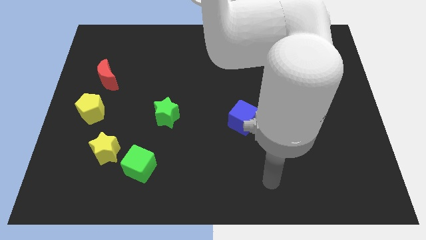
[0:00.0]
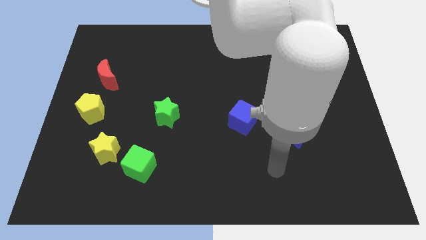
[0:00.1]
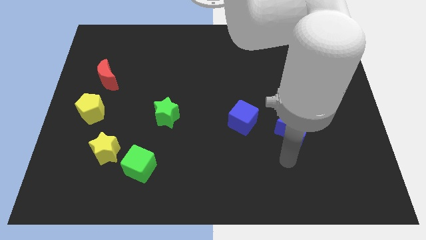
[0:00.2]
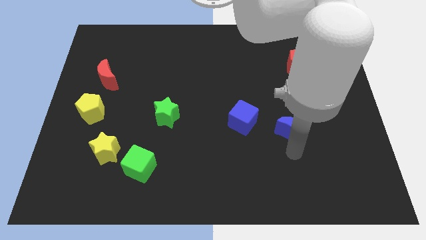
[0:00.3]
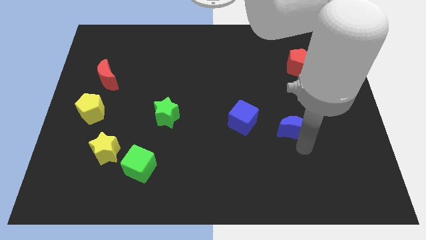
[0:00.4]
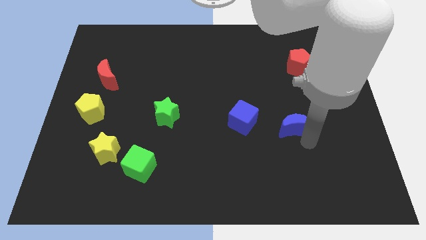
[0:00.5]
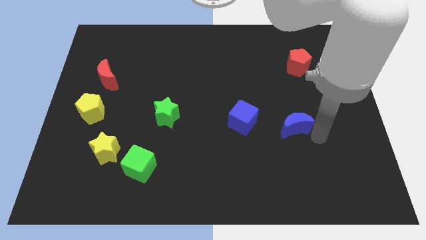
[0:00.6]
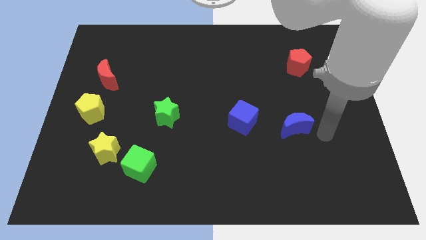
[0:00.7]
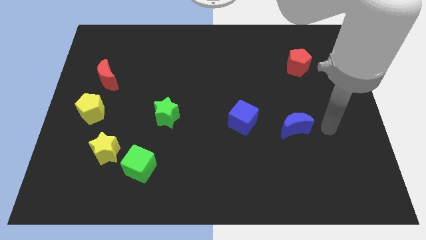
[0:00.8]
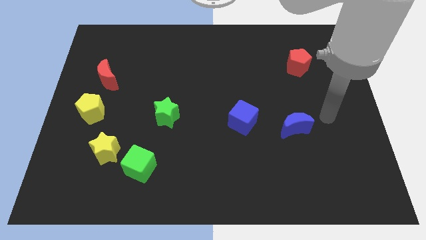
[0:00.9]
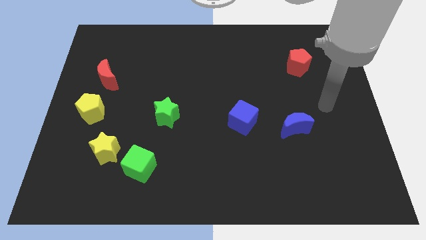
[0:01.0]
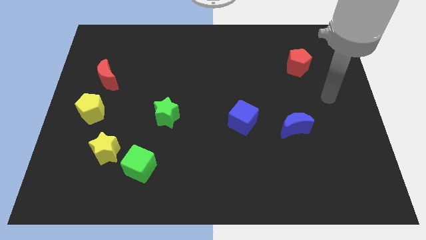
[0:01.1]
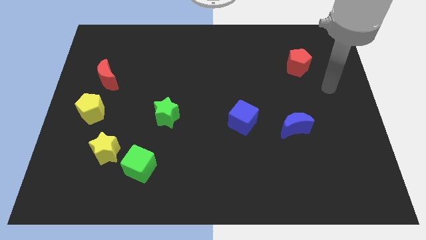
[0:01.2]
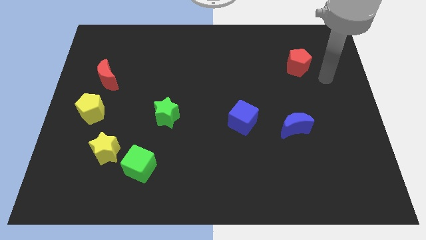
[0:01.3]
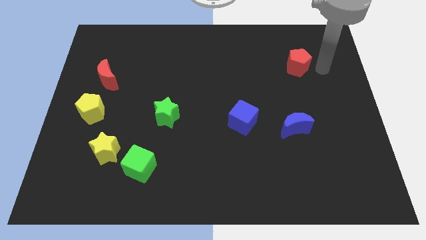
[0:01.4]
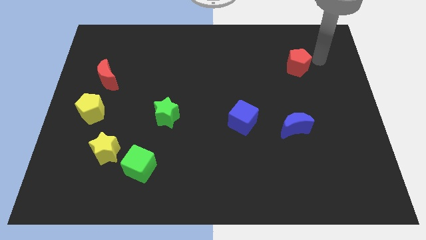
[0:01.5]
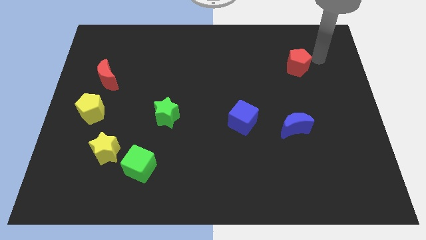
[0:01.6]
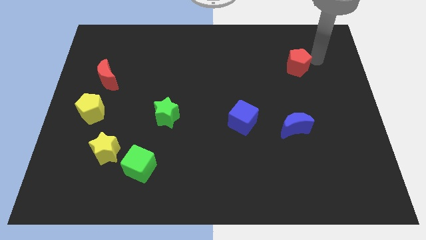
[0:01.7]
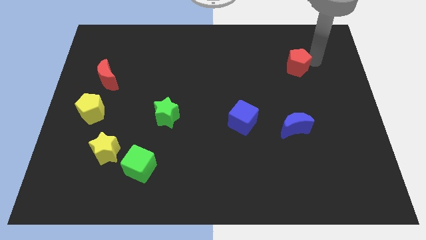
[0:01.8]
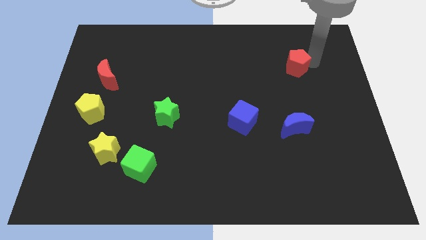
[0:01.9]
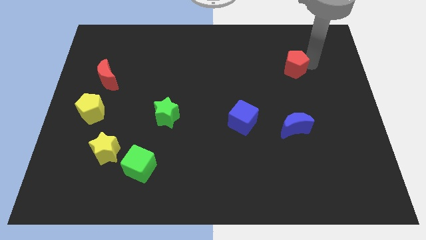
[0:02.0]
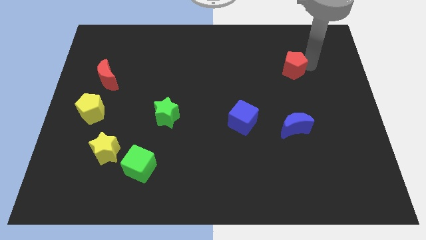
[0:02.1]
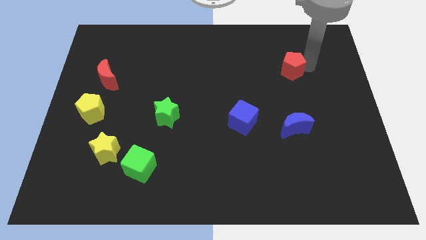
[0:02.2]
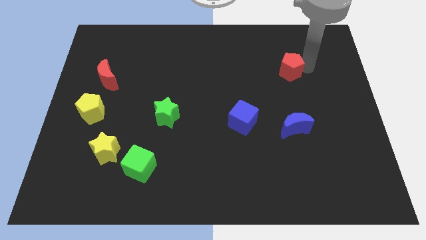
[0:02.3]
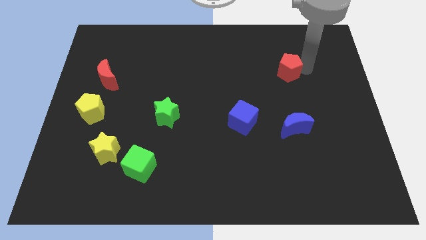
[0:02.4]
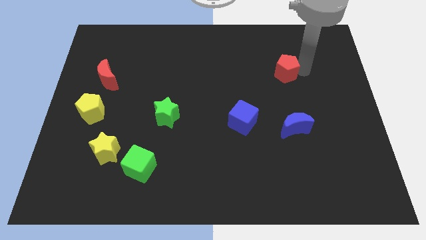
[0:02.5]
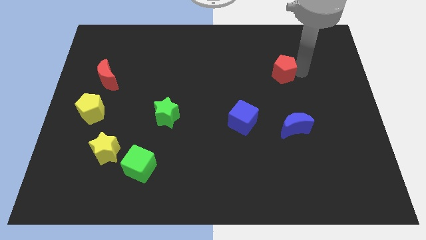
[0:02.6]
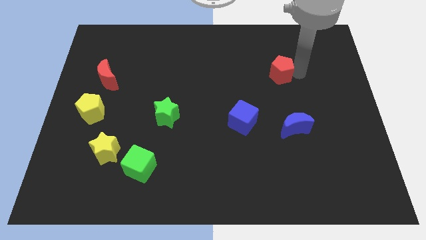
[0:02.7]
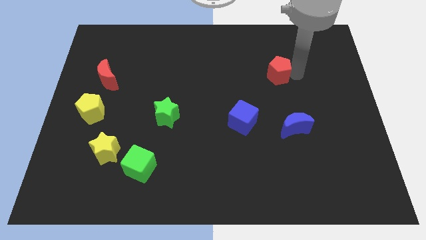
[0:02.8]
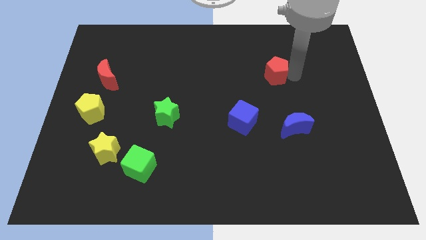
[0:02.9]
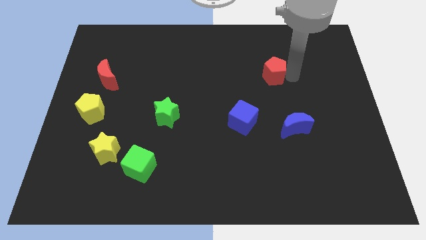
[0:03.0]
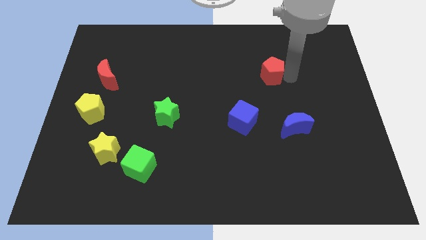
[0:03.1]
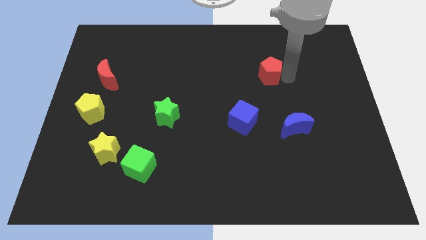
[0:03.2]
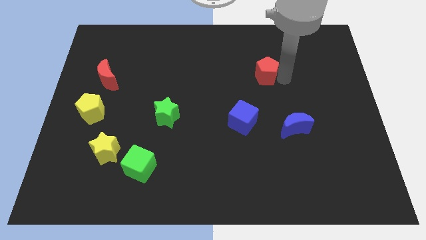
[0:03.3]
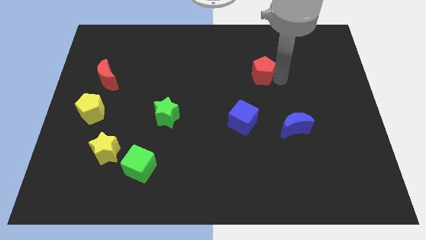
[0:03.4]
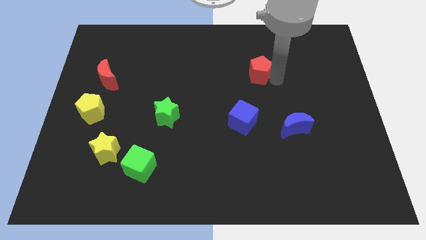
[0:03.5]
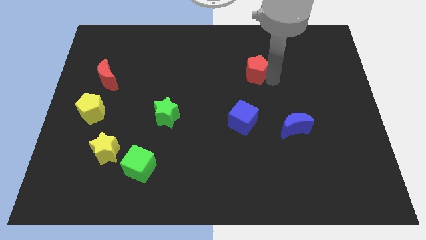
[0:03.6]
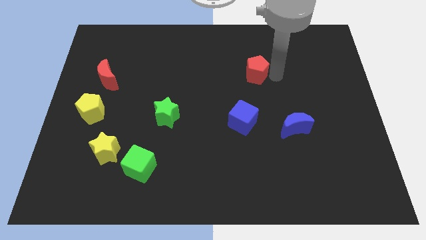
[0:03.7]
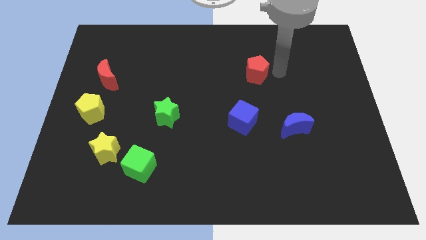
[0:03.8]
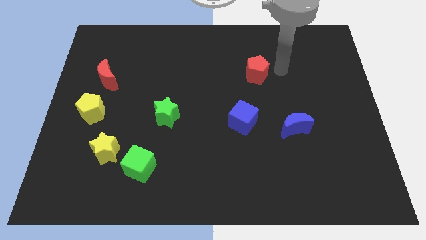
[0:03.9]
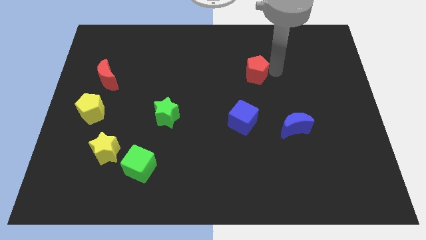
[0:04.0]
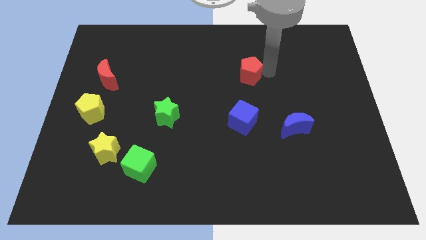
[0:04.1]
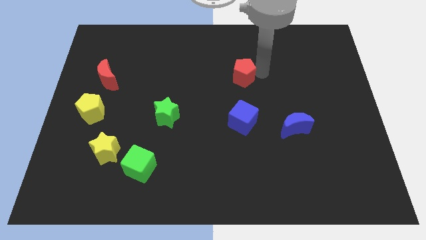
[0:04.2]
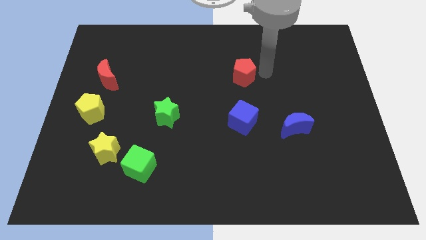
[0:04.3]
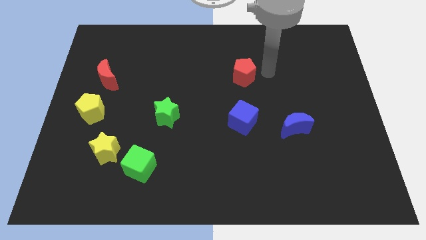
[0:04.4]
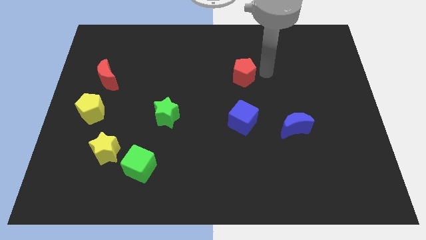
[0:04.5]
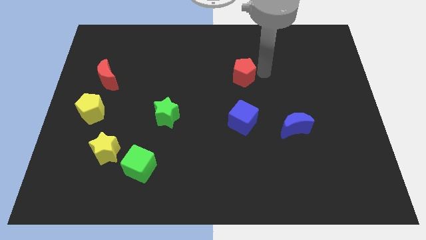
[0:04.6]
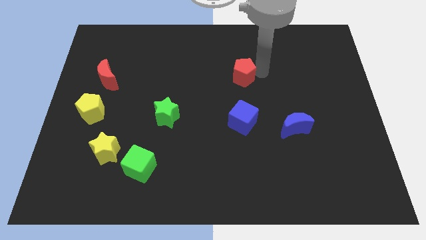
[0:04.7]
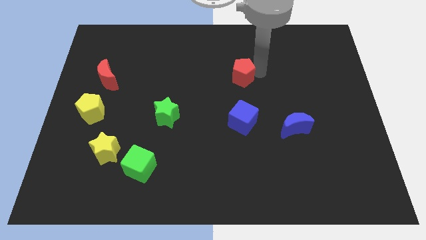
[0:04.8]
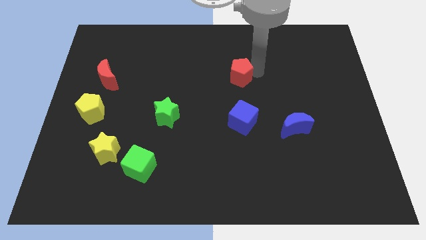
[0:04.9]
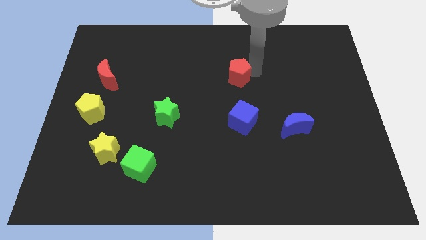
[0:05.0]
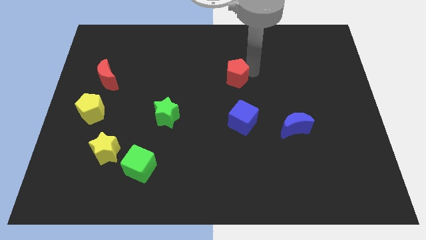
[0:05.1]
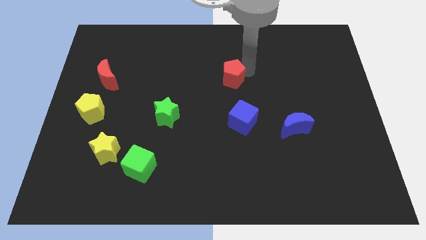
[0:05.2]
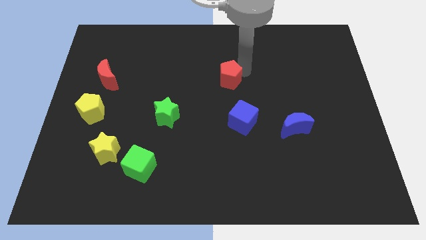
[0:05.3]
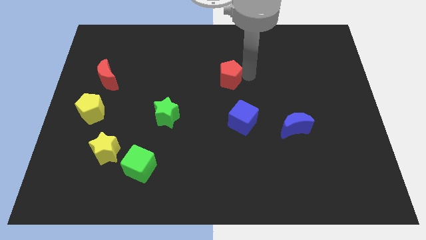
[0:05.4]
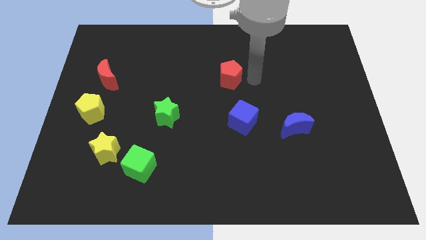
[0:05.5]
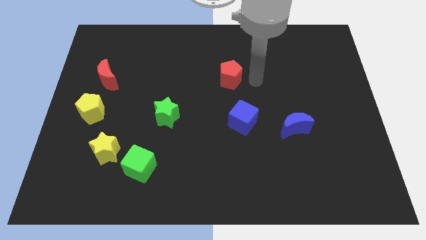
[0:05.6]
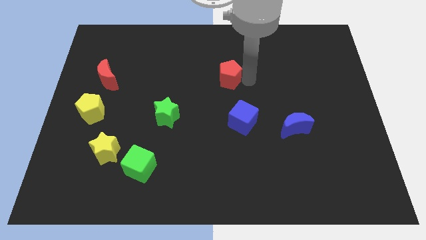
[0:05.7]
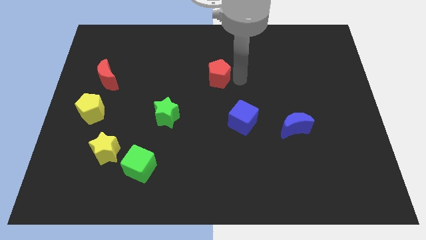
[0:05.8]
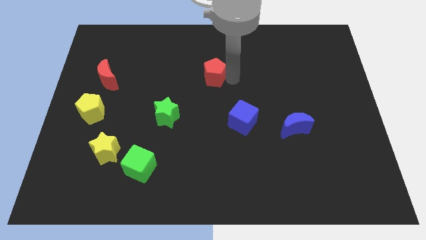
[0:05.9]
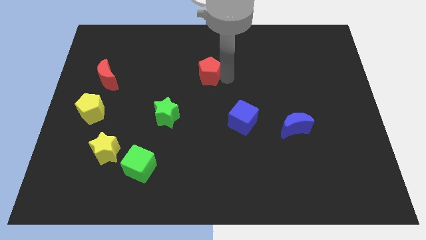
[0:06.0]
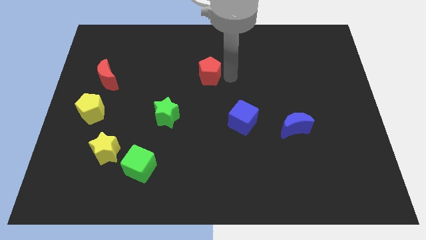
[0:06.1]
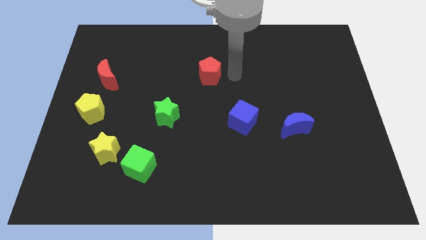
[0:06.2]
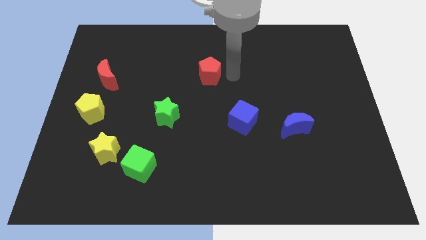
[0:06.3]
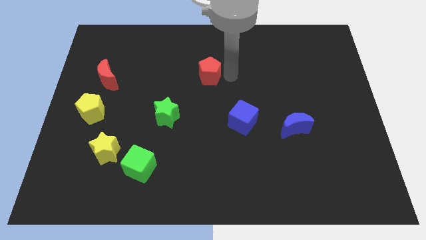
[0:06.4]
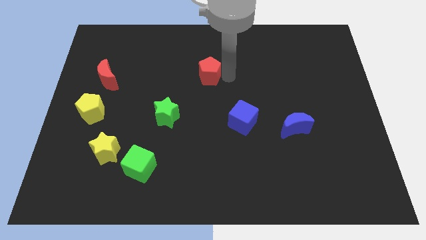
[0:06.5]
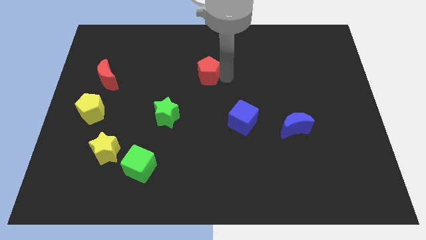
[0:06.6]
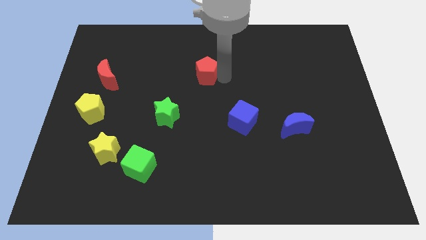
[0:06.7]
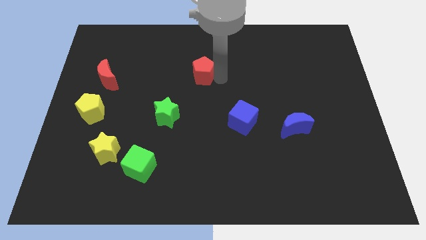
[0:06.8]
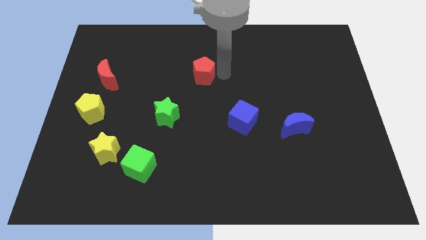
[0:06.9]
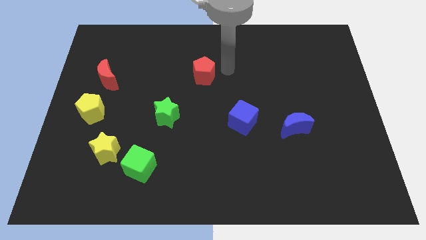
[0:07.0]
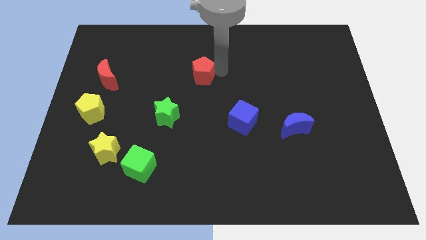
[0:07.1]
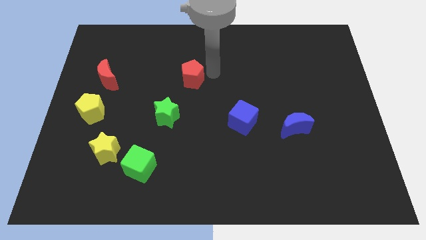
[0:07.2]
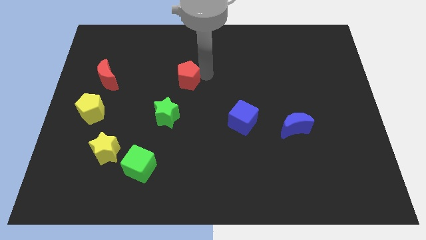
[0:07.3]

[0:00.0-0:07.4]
move the red pentagon to the top side of the green star
